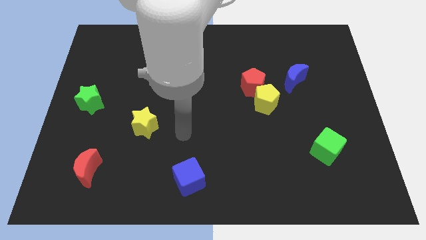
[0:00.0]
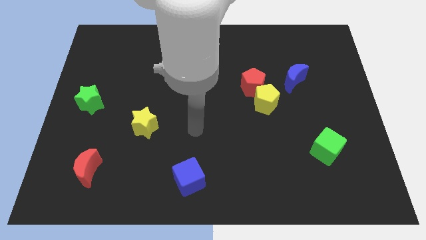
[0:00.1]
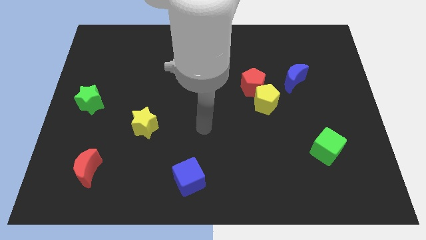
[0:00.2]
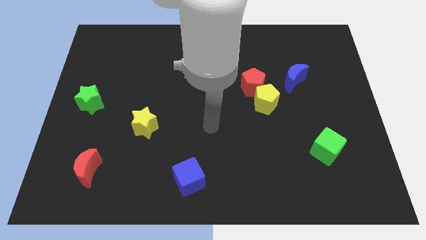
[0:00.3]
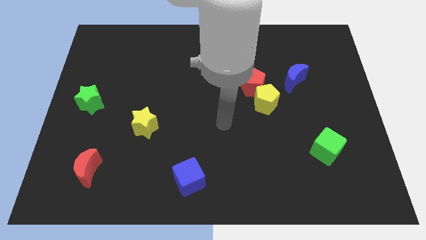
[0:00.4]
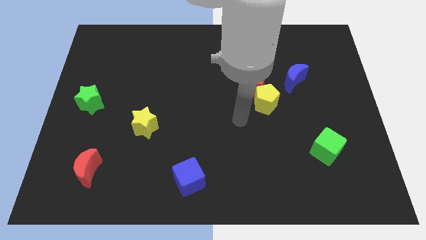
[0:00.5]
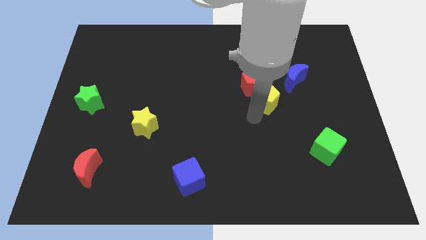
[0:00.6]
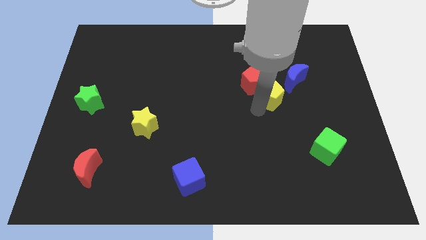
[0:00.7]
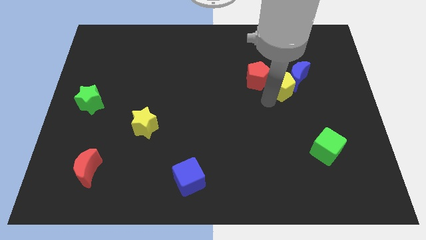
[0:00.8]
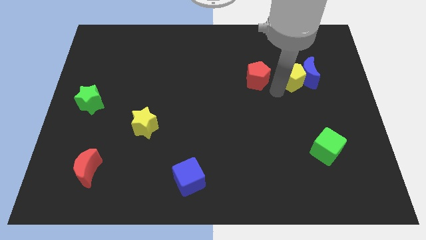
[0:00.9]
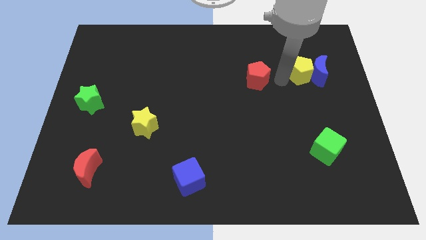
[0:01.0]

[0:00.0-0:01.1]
separate the red pentagon from the yellow pentagon

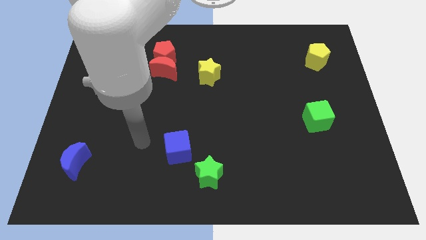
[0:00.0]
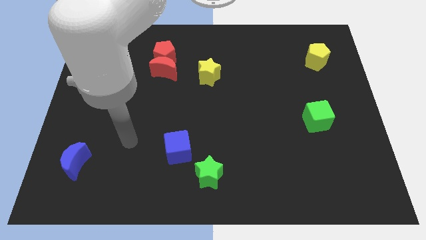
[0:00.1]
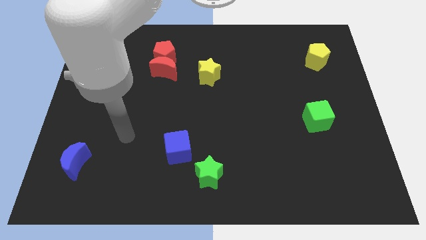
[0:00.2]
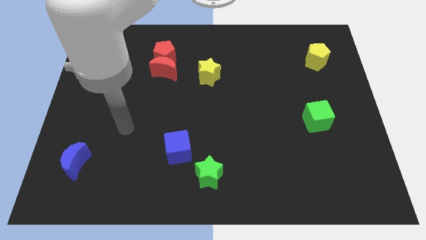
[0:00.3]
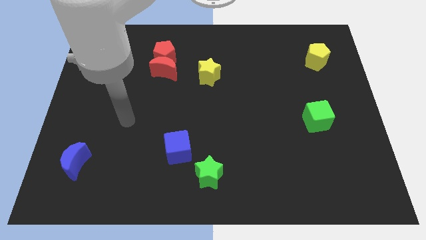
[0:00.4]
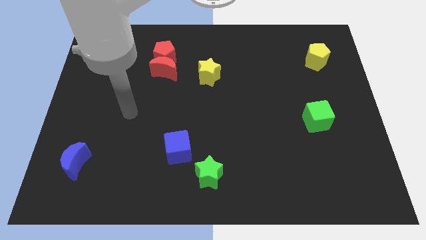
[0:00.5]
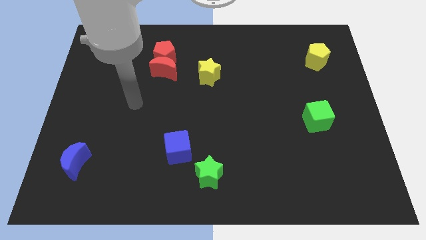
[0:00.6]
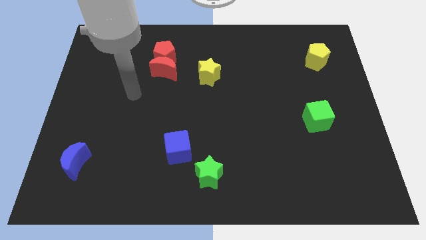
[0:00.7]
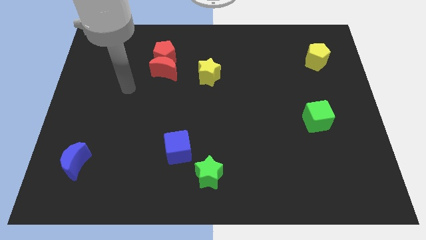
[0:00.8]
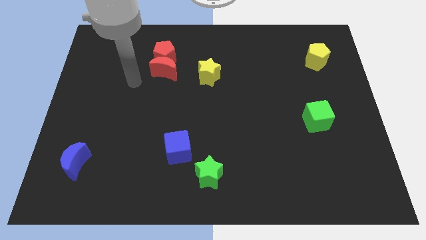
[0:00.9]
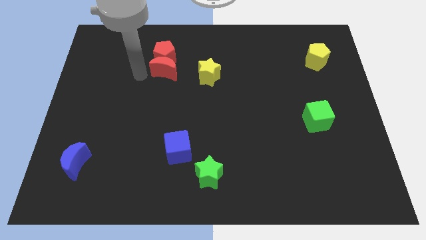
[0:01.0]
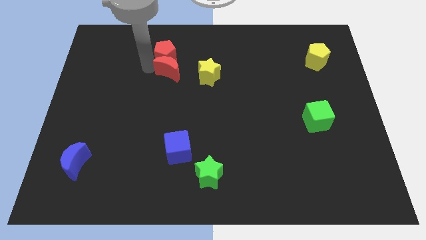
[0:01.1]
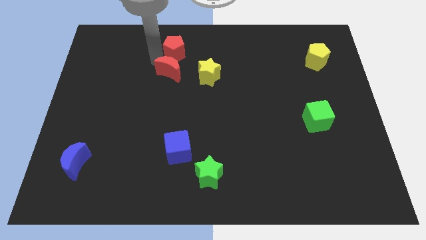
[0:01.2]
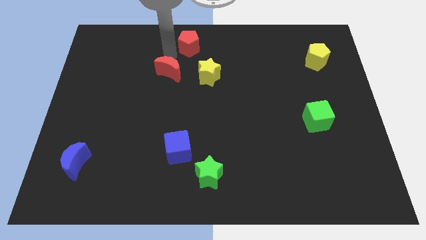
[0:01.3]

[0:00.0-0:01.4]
move the red moon away from the red pentagon

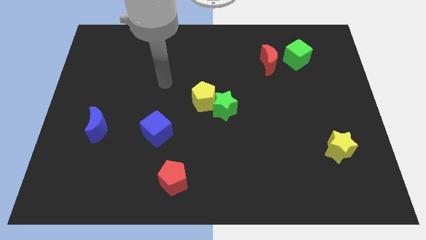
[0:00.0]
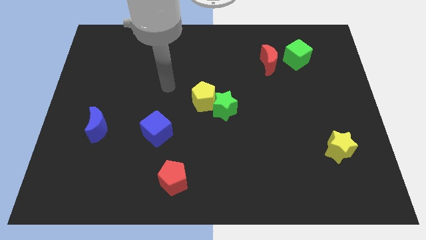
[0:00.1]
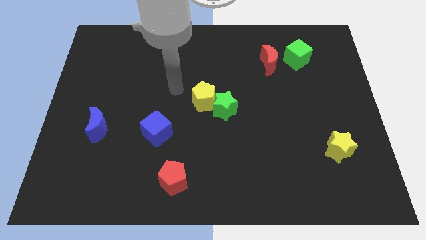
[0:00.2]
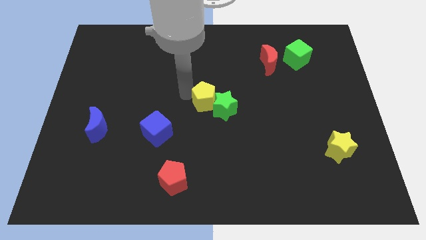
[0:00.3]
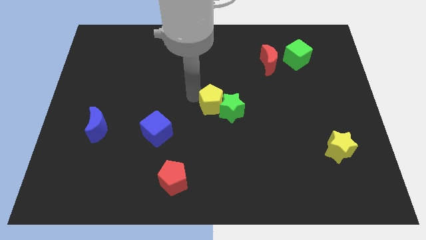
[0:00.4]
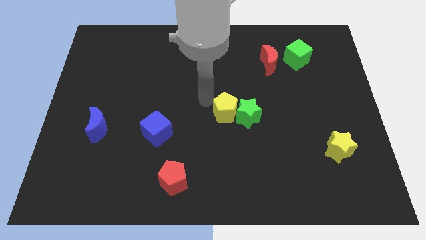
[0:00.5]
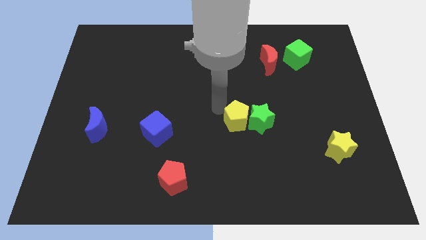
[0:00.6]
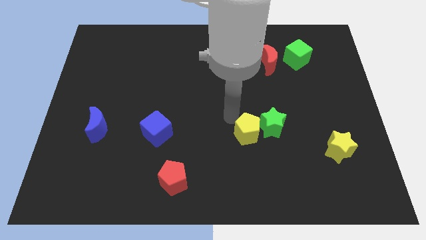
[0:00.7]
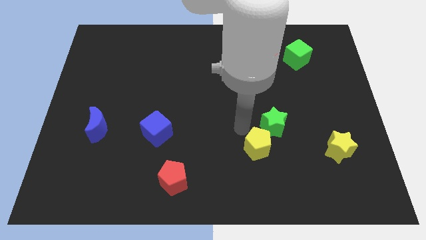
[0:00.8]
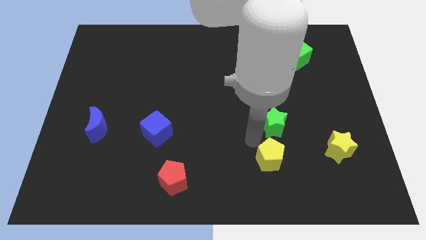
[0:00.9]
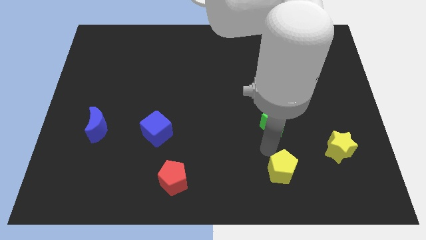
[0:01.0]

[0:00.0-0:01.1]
move the green star away from the yellow pentagon

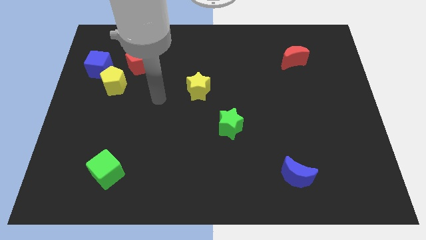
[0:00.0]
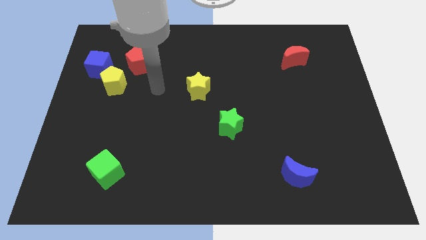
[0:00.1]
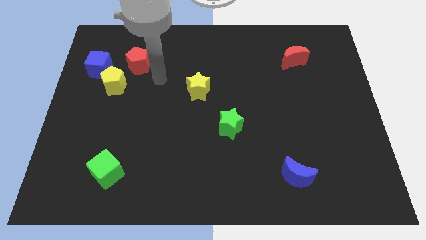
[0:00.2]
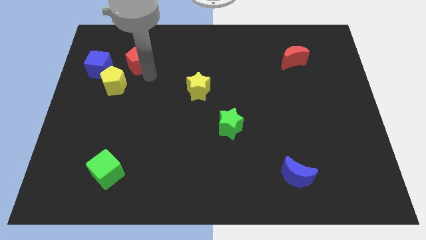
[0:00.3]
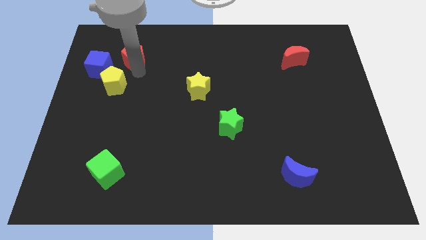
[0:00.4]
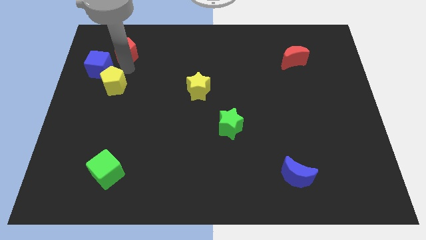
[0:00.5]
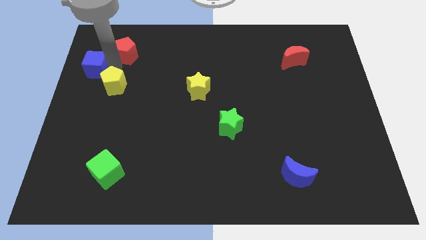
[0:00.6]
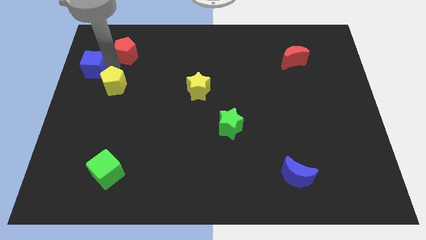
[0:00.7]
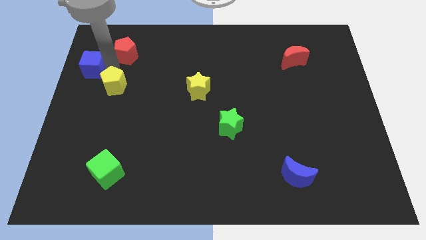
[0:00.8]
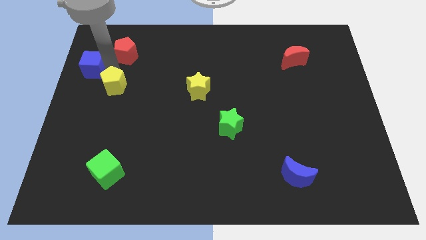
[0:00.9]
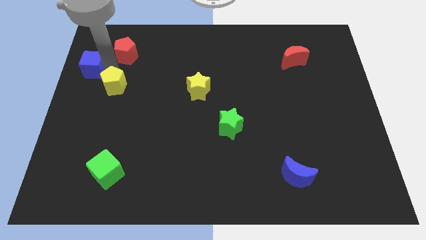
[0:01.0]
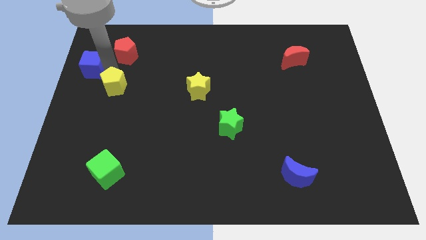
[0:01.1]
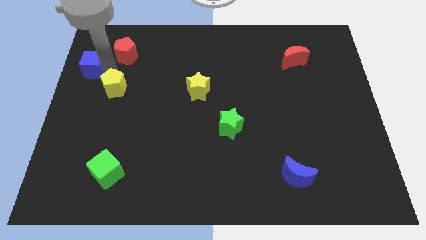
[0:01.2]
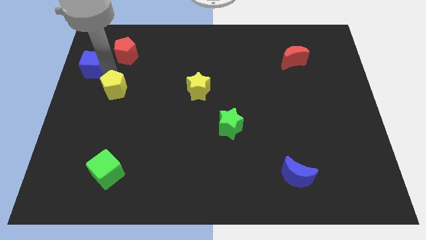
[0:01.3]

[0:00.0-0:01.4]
pull the yellow pentagon apart from the blue cube and red pentagon

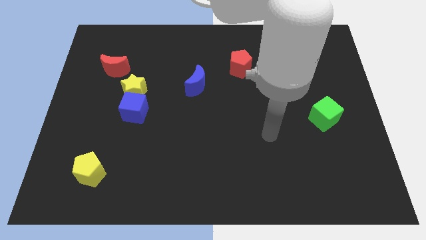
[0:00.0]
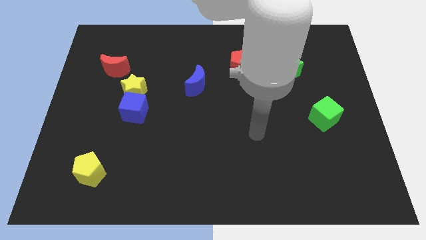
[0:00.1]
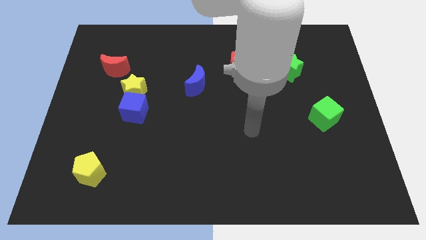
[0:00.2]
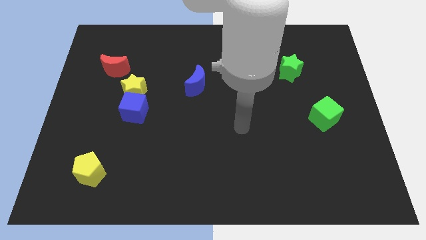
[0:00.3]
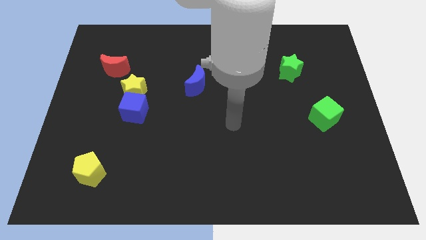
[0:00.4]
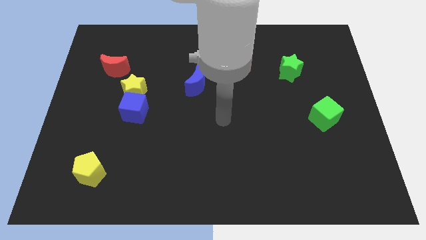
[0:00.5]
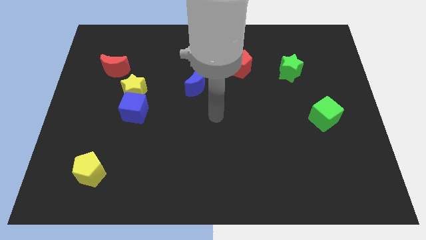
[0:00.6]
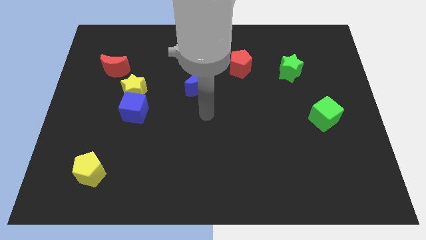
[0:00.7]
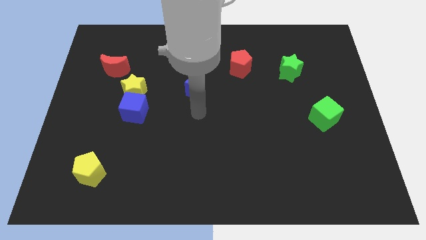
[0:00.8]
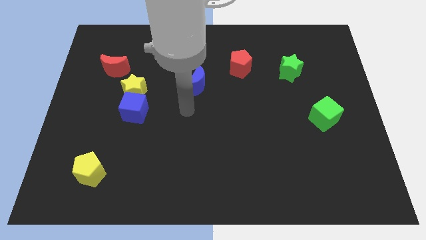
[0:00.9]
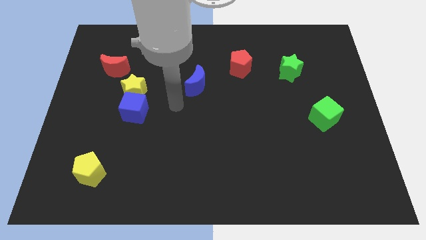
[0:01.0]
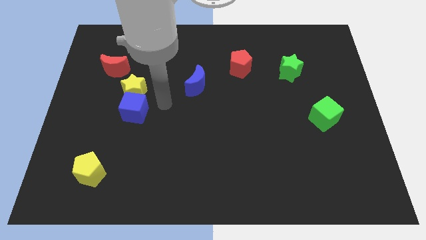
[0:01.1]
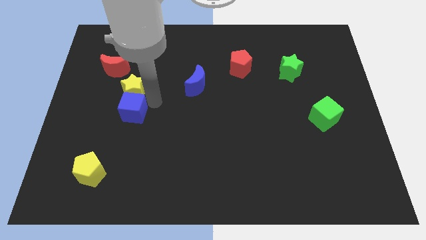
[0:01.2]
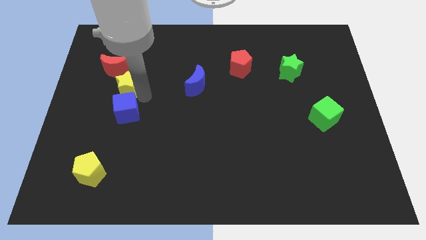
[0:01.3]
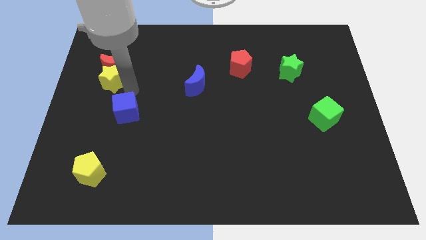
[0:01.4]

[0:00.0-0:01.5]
separate the blue cube from the yellow star

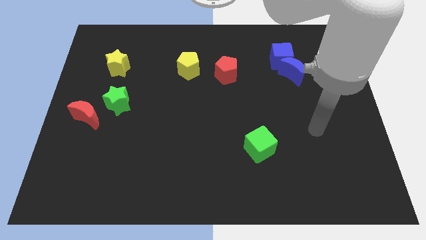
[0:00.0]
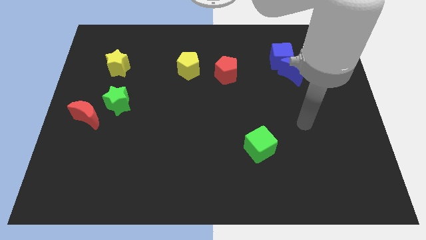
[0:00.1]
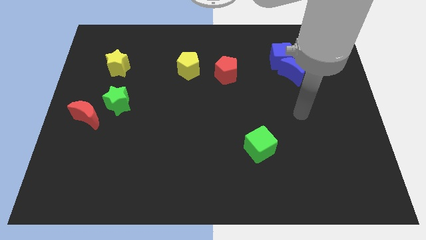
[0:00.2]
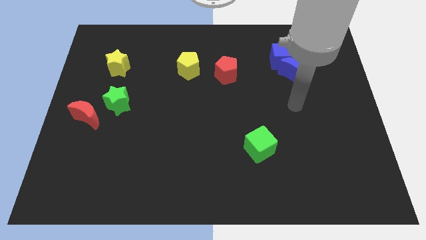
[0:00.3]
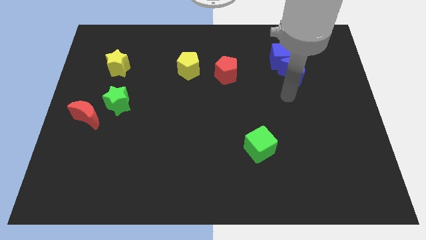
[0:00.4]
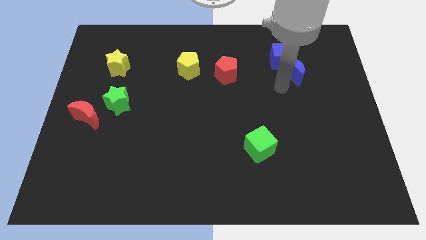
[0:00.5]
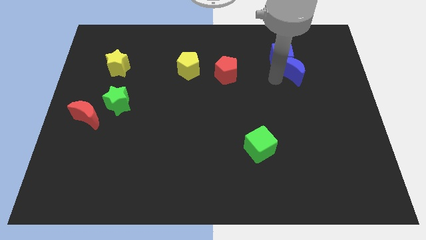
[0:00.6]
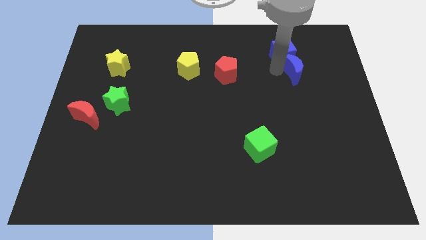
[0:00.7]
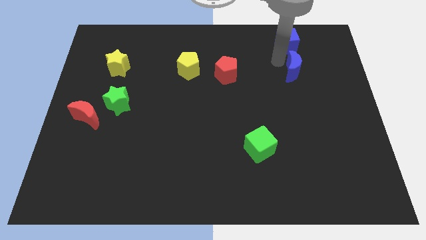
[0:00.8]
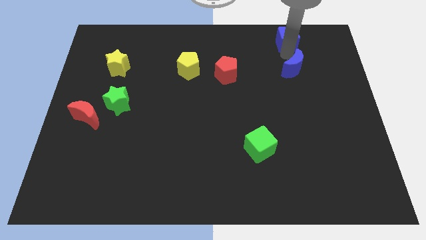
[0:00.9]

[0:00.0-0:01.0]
pull the blue moon apart from the blue cube

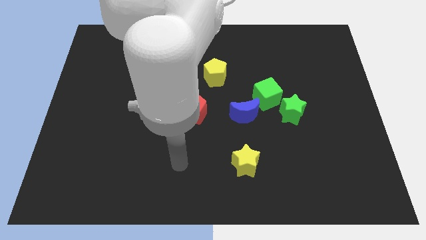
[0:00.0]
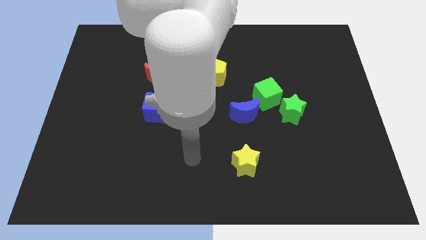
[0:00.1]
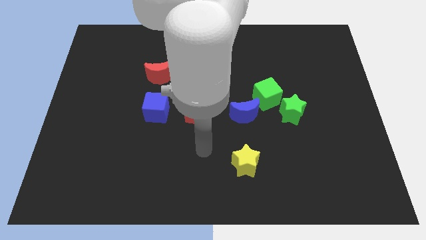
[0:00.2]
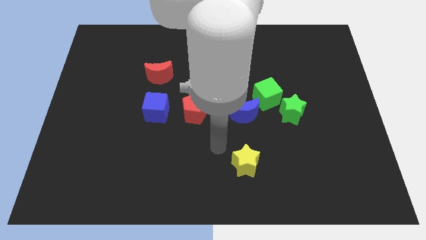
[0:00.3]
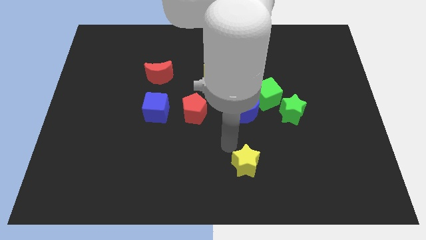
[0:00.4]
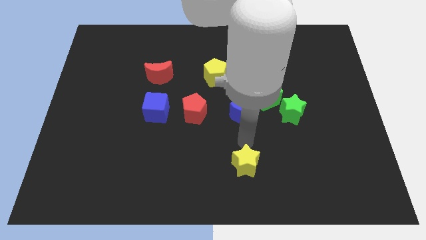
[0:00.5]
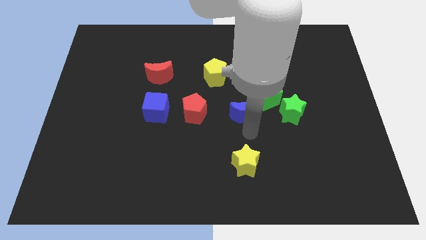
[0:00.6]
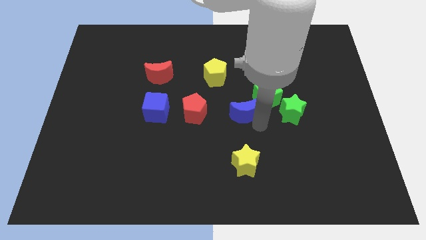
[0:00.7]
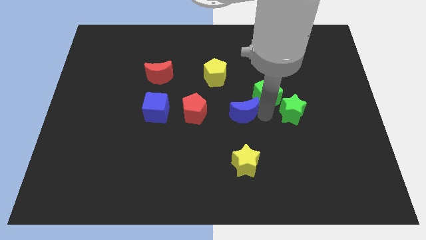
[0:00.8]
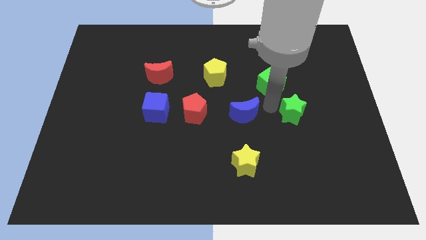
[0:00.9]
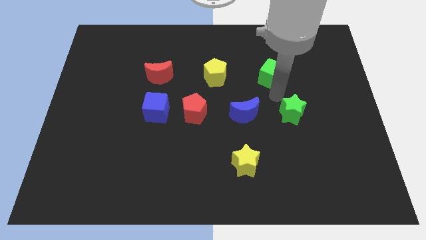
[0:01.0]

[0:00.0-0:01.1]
pull the green star apart from the green cube

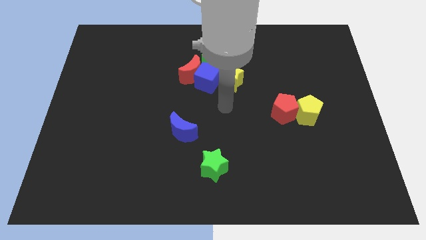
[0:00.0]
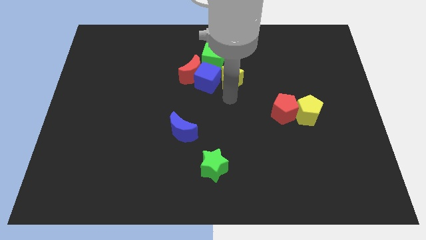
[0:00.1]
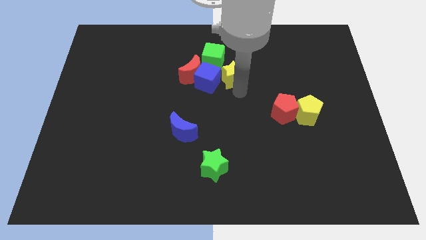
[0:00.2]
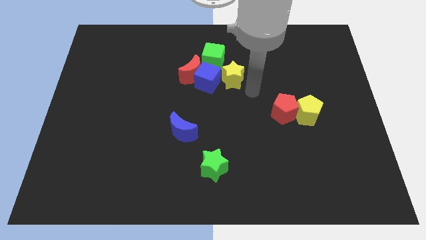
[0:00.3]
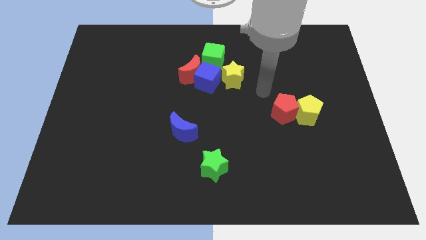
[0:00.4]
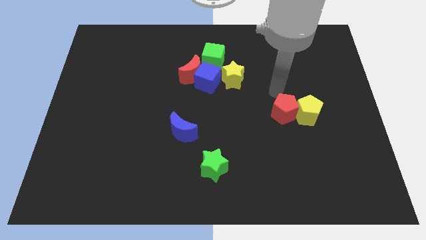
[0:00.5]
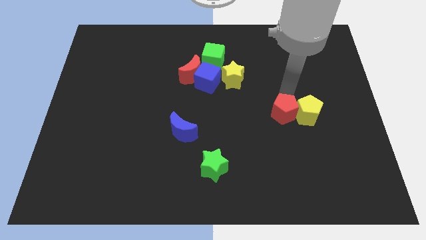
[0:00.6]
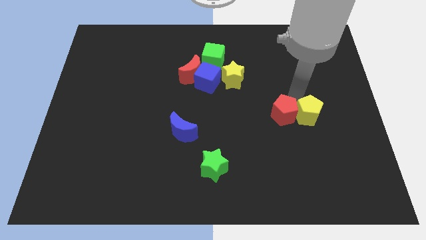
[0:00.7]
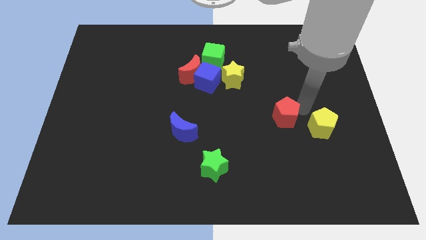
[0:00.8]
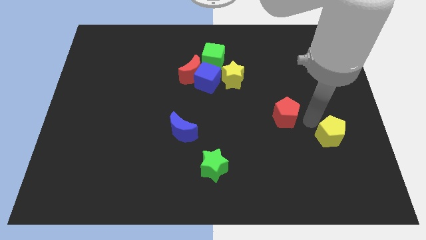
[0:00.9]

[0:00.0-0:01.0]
pull the red pentagon apart from the yellow pentagon
